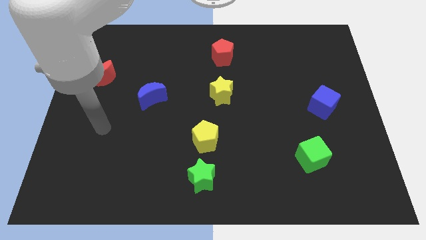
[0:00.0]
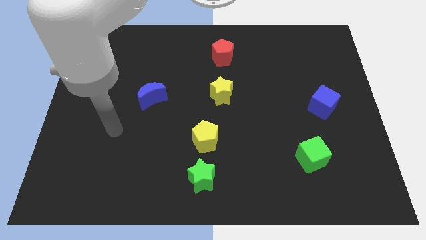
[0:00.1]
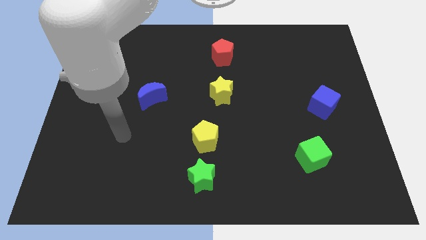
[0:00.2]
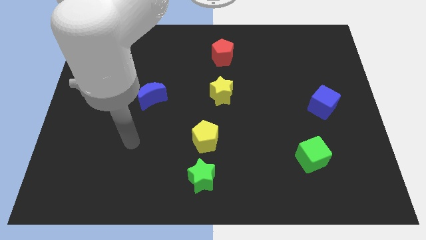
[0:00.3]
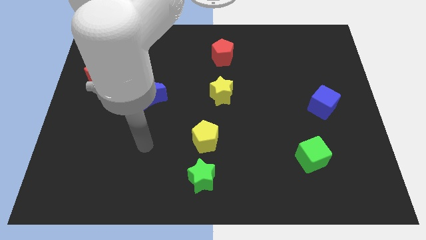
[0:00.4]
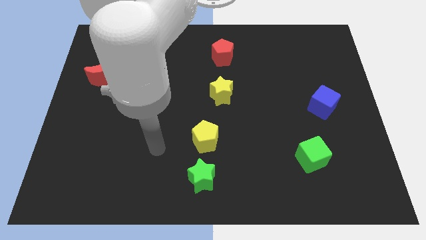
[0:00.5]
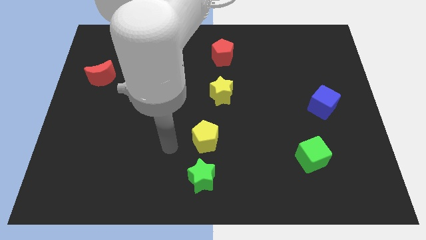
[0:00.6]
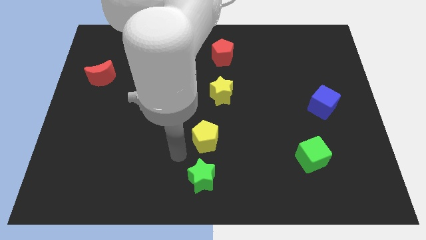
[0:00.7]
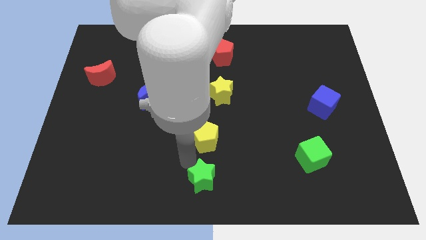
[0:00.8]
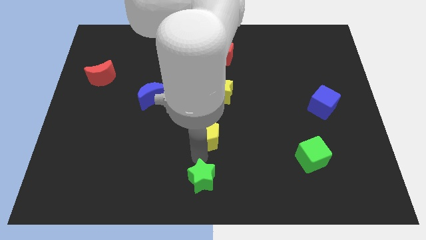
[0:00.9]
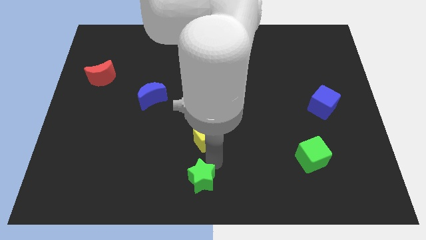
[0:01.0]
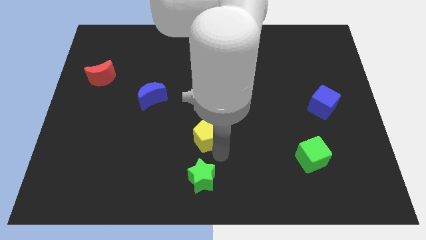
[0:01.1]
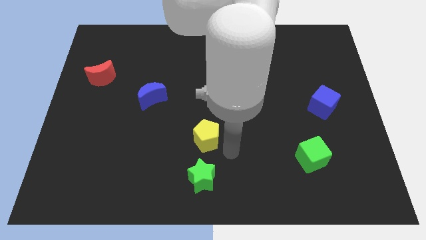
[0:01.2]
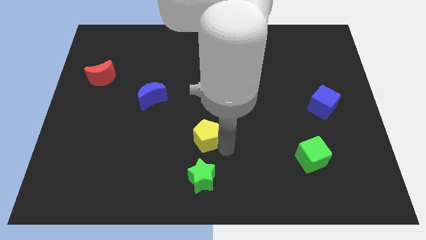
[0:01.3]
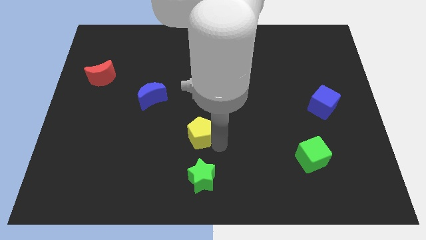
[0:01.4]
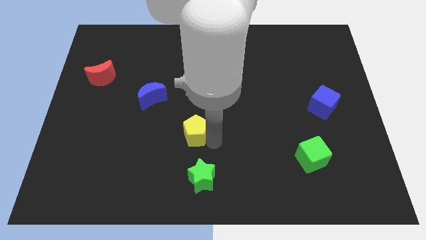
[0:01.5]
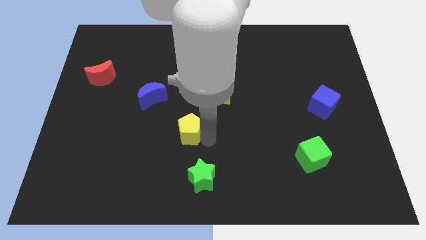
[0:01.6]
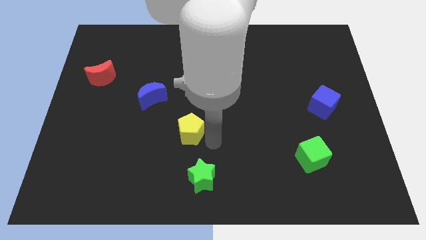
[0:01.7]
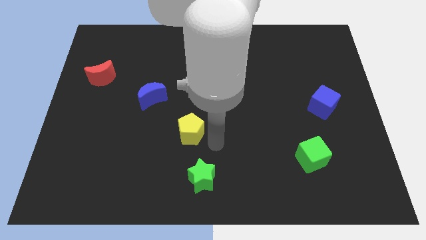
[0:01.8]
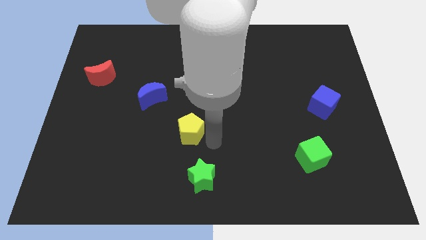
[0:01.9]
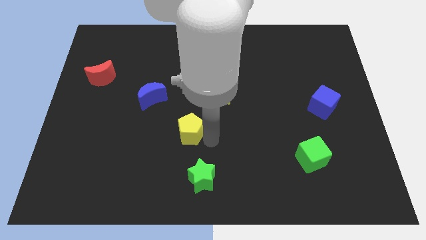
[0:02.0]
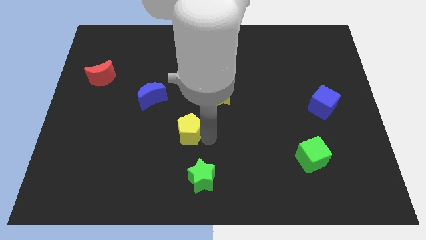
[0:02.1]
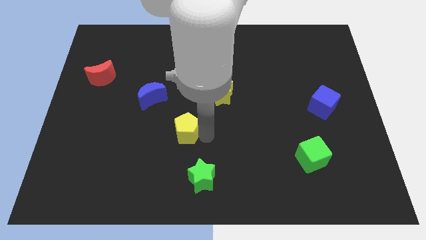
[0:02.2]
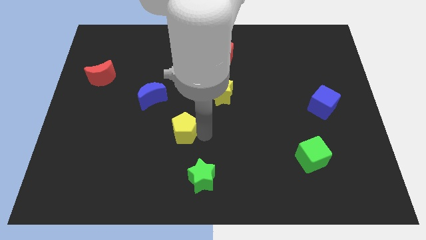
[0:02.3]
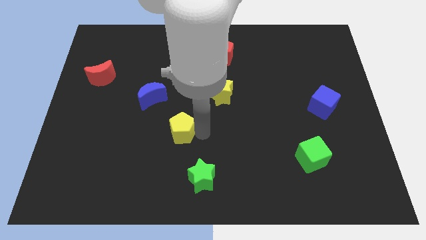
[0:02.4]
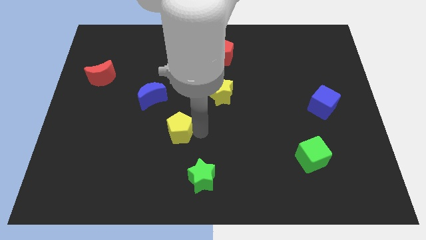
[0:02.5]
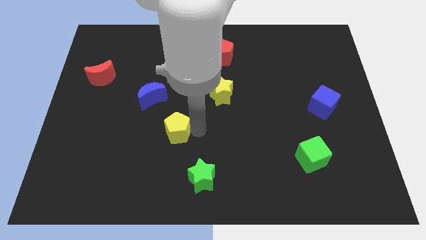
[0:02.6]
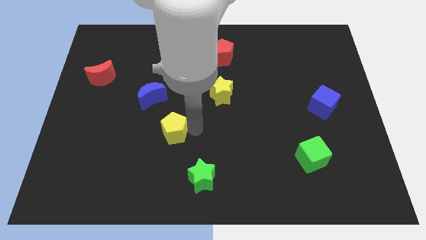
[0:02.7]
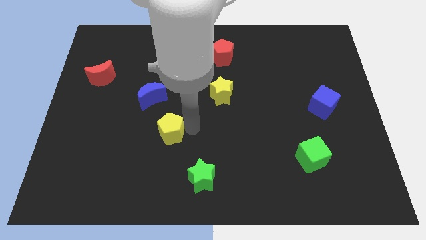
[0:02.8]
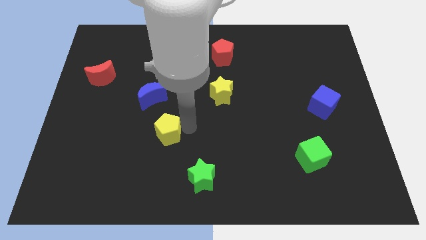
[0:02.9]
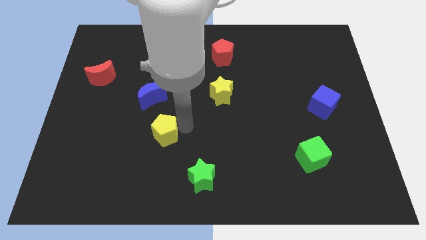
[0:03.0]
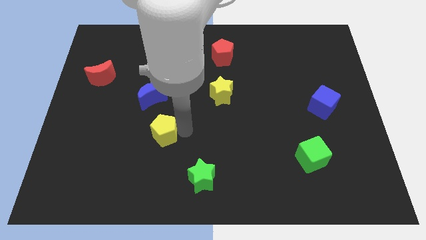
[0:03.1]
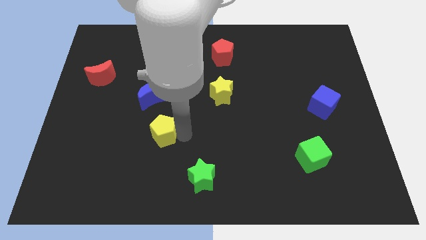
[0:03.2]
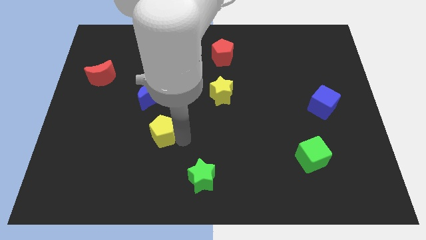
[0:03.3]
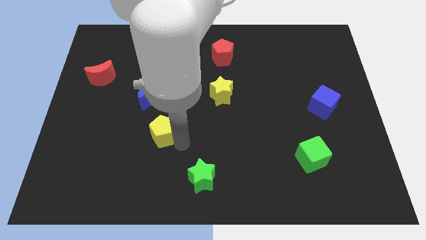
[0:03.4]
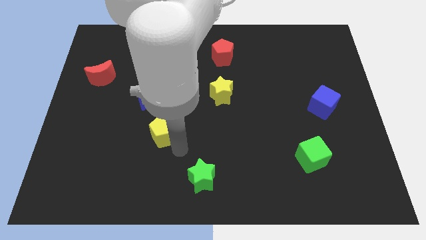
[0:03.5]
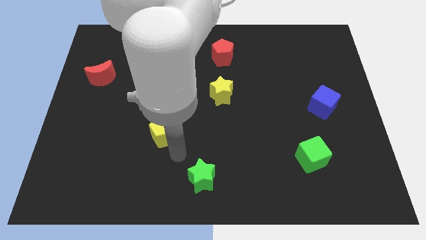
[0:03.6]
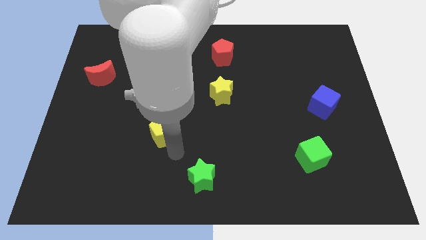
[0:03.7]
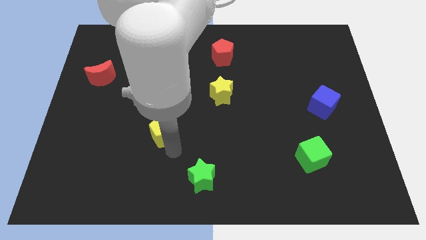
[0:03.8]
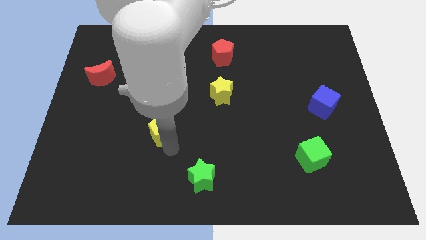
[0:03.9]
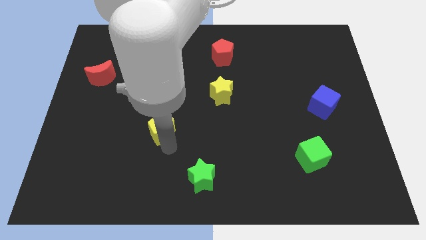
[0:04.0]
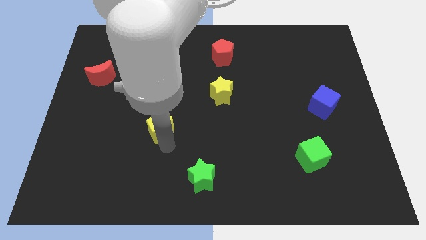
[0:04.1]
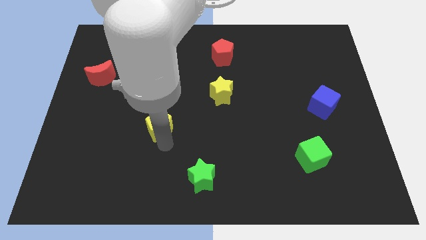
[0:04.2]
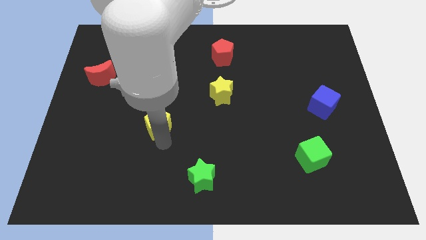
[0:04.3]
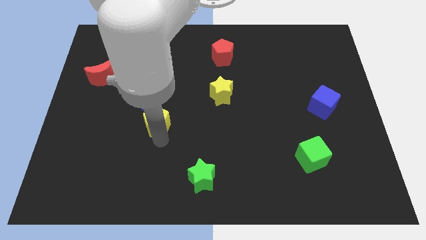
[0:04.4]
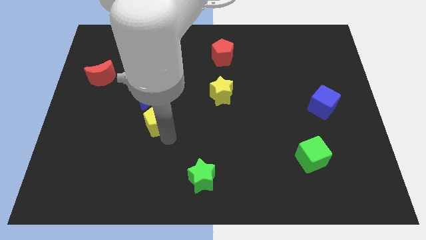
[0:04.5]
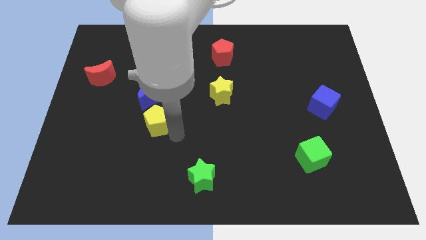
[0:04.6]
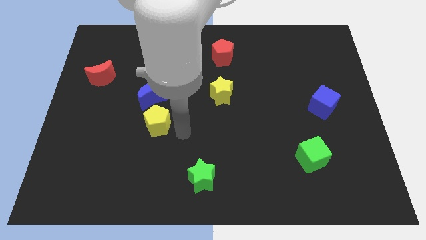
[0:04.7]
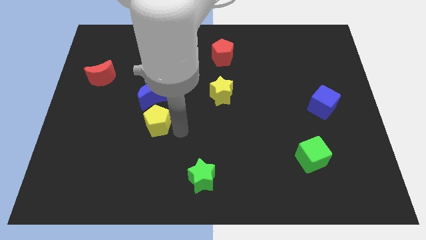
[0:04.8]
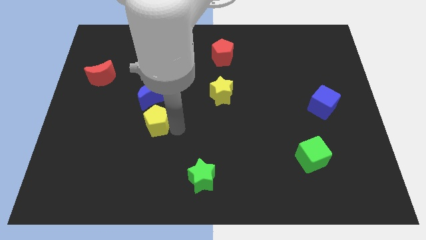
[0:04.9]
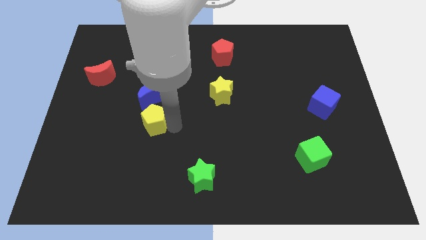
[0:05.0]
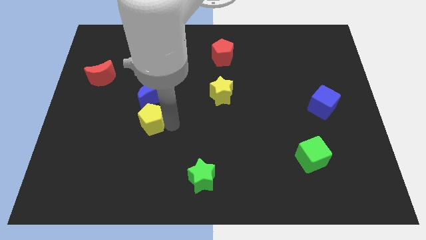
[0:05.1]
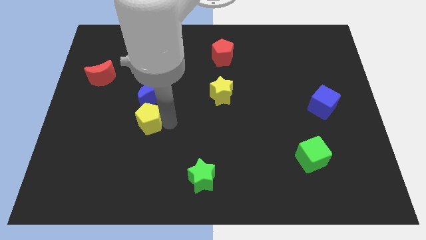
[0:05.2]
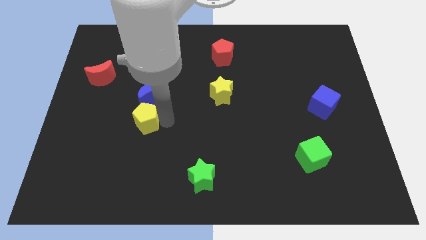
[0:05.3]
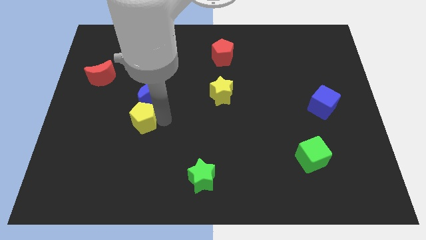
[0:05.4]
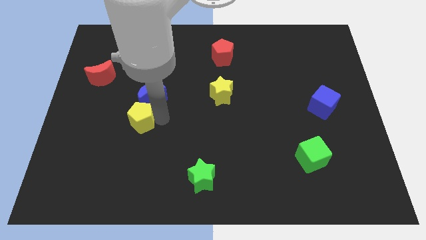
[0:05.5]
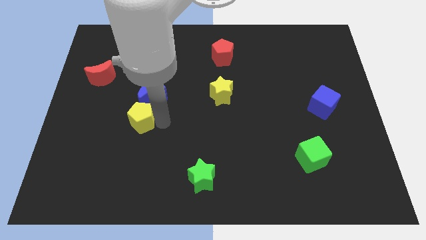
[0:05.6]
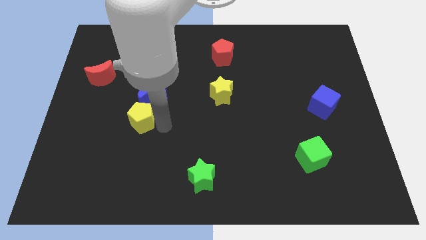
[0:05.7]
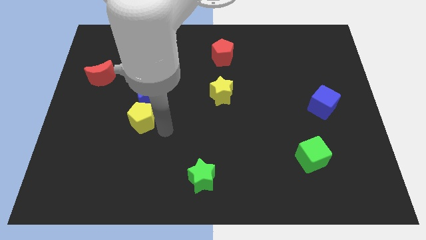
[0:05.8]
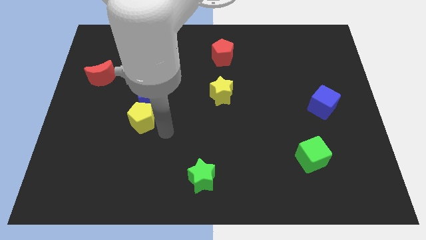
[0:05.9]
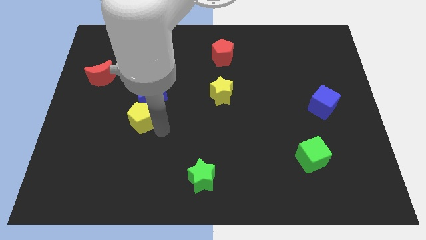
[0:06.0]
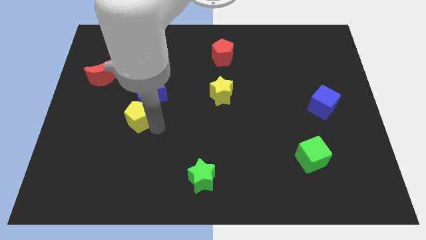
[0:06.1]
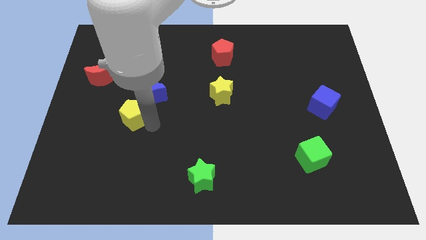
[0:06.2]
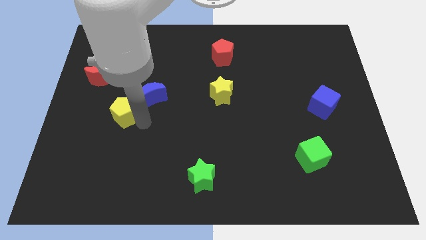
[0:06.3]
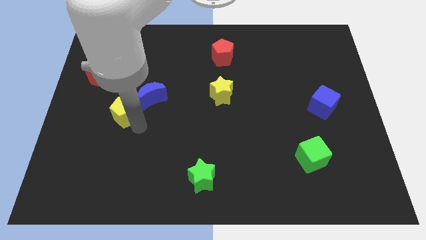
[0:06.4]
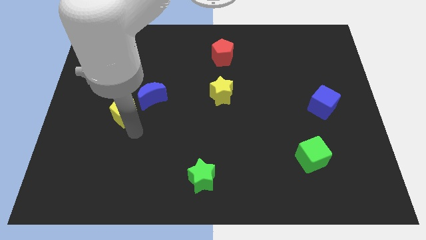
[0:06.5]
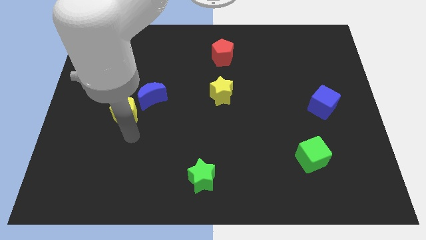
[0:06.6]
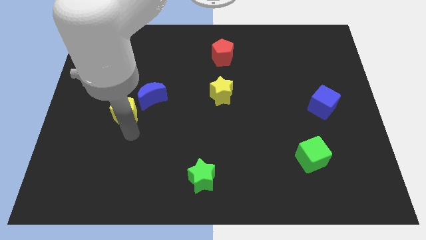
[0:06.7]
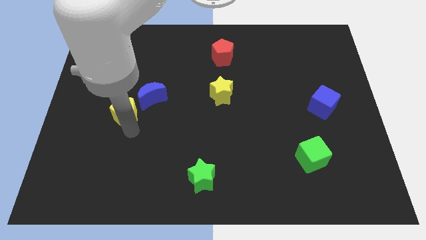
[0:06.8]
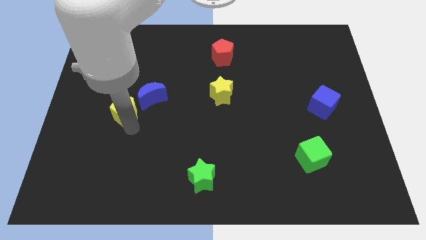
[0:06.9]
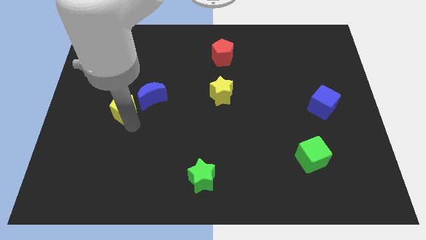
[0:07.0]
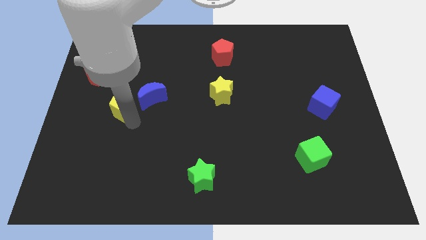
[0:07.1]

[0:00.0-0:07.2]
move the yellow pentagon diagonally down and to the right of the red moon

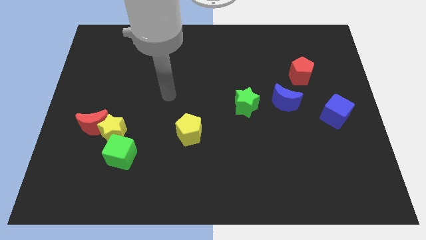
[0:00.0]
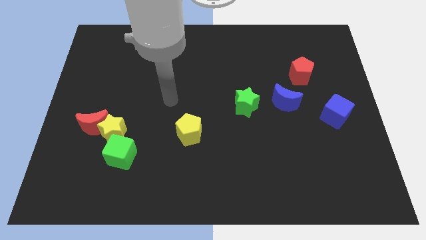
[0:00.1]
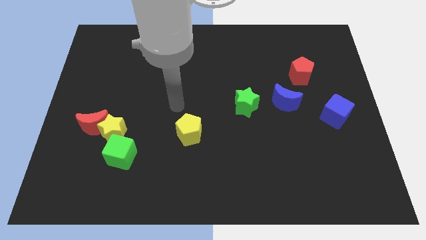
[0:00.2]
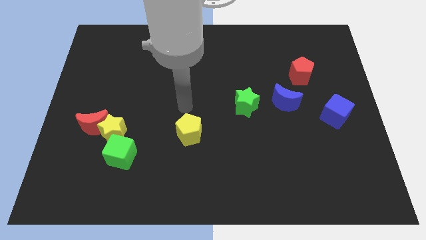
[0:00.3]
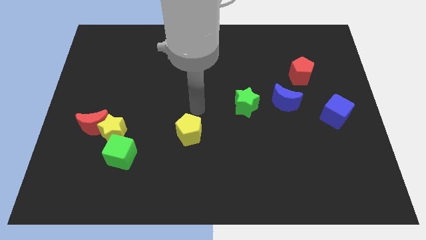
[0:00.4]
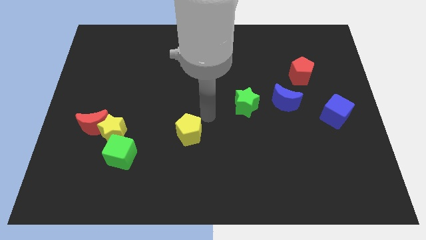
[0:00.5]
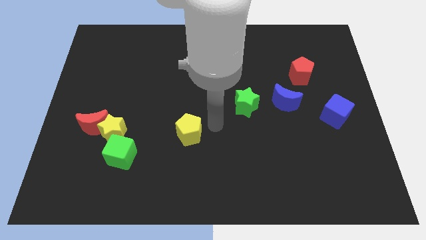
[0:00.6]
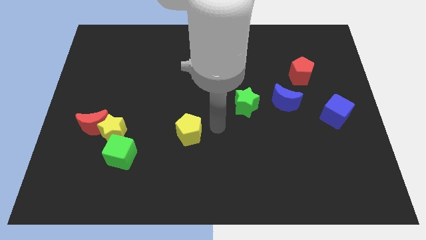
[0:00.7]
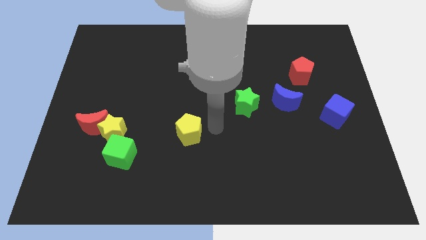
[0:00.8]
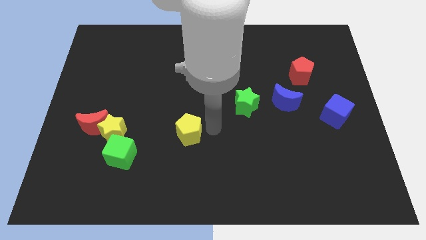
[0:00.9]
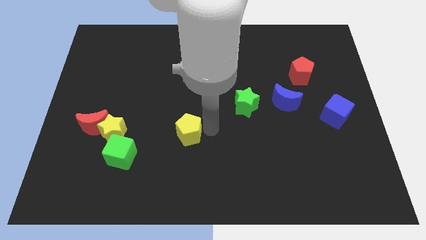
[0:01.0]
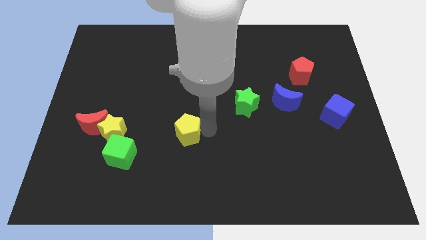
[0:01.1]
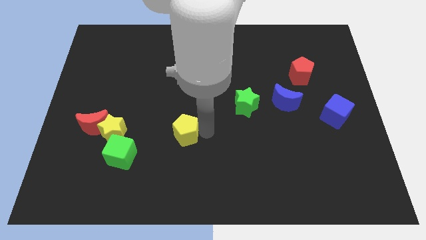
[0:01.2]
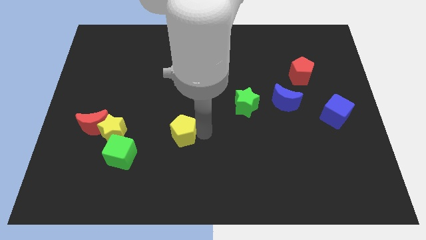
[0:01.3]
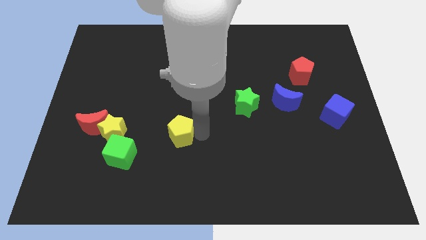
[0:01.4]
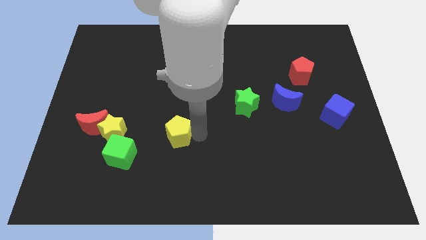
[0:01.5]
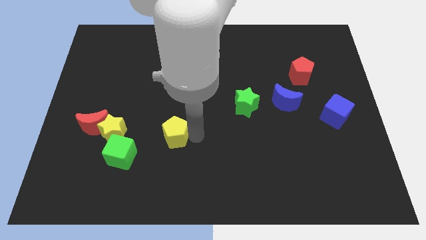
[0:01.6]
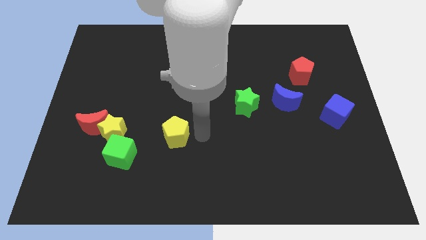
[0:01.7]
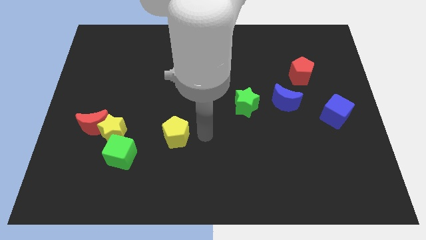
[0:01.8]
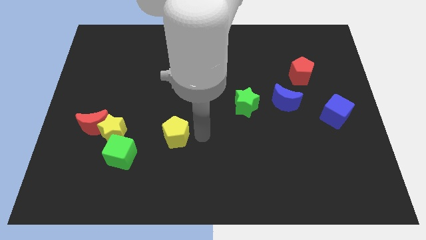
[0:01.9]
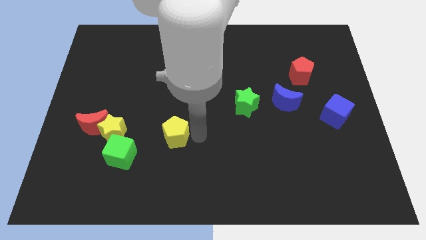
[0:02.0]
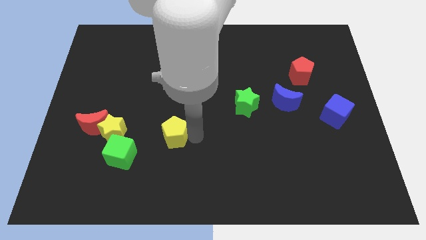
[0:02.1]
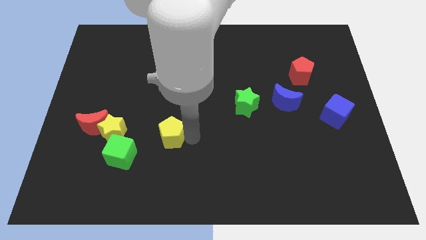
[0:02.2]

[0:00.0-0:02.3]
slide the yellow pentagon diagonally up and to the right of the green cube
